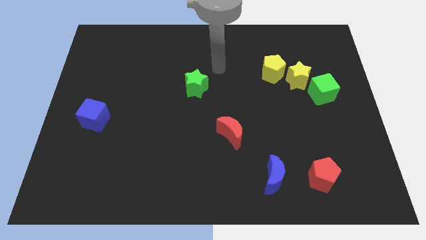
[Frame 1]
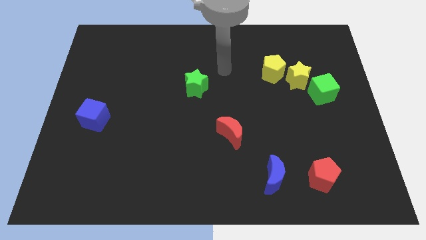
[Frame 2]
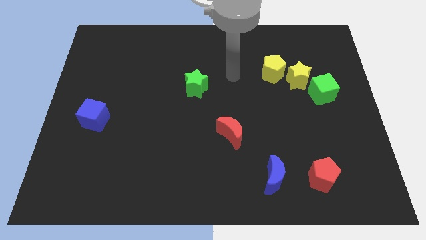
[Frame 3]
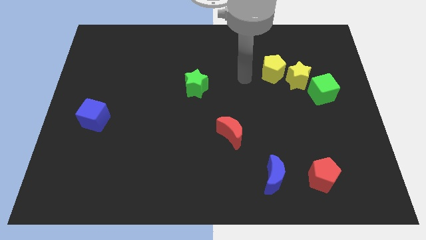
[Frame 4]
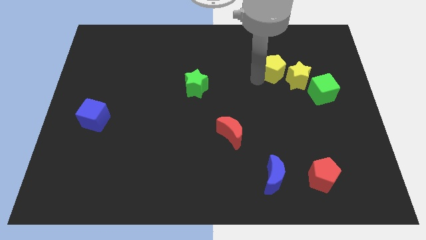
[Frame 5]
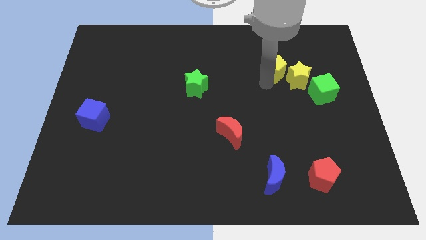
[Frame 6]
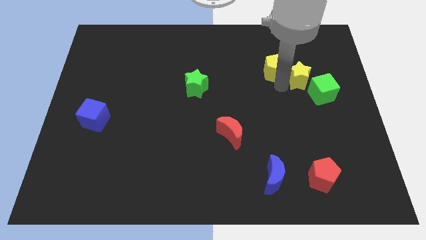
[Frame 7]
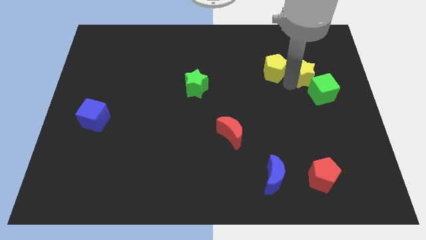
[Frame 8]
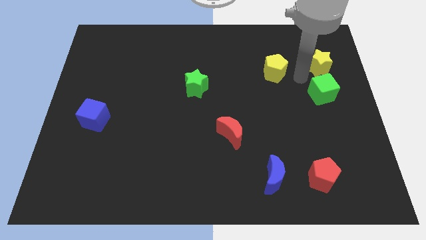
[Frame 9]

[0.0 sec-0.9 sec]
pull the yellow pentagon apart from the yellow star

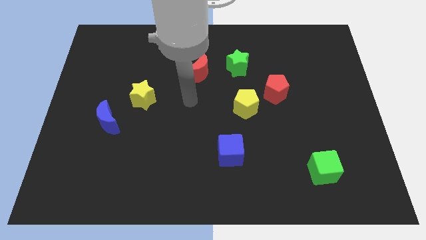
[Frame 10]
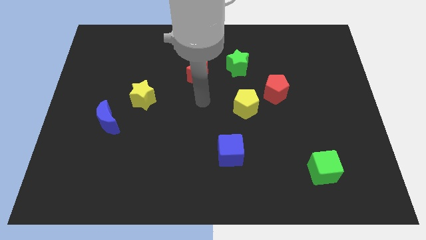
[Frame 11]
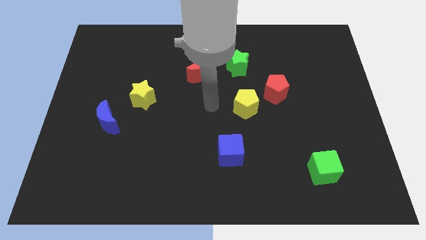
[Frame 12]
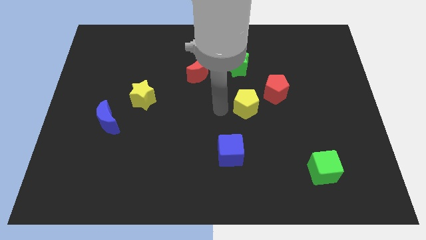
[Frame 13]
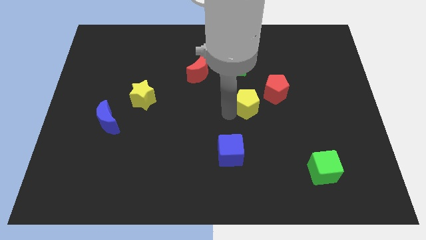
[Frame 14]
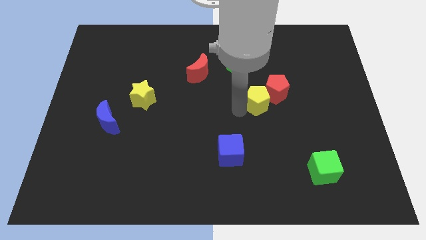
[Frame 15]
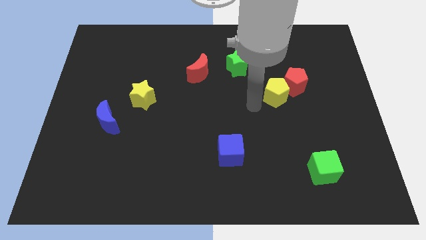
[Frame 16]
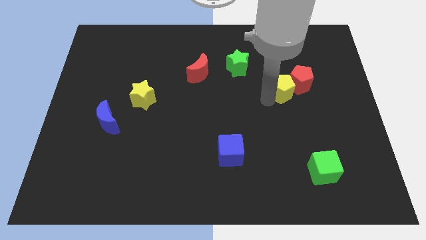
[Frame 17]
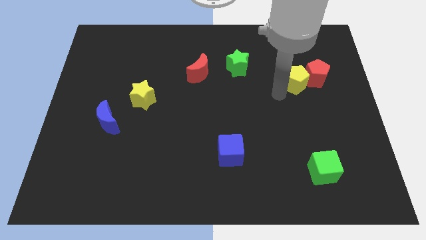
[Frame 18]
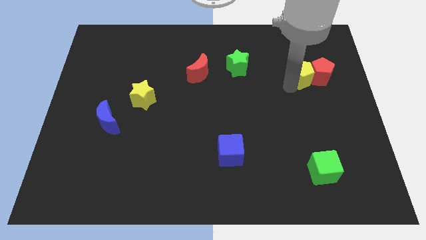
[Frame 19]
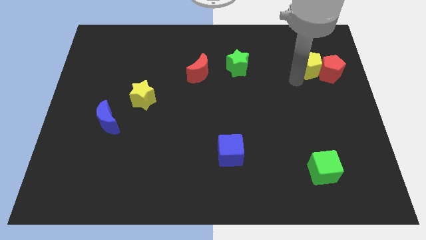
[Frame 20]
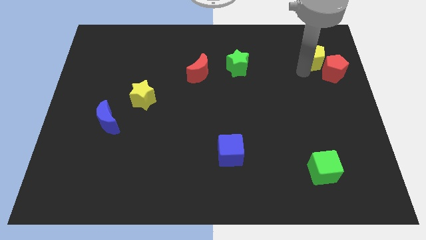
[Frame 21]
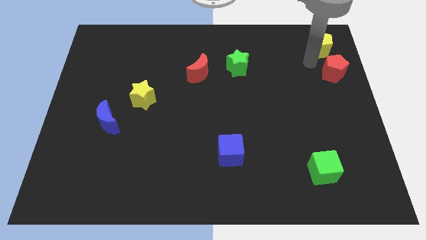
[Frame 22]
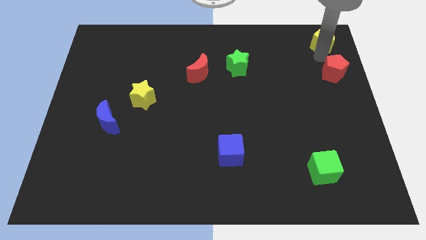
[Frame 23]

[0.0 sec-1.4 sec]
separate the red pentagon from the yellow pentagon

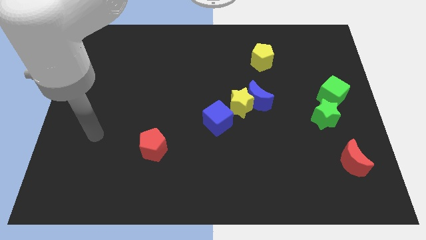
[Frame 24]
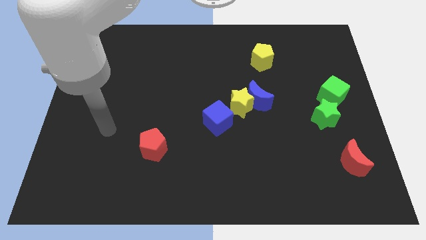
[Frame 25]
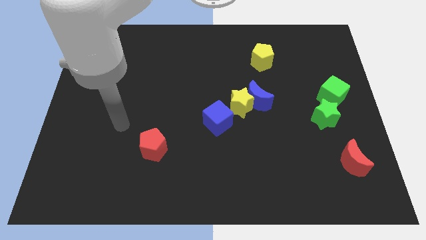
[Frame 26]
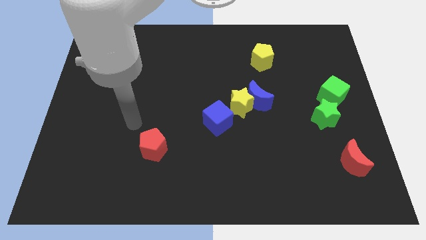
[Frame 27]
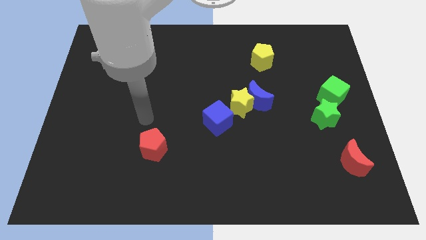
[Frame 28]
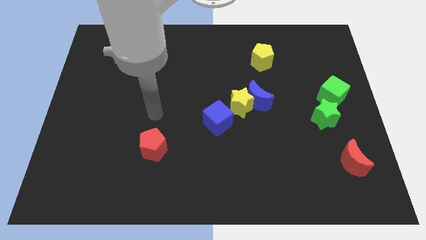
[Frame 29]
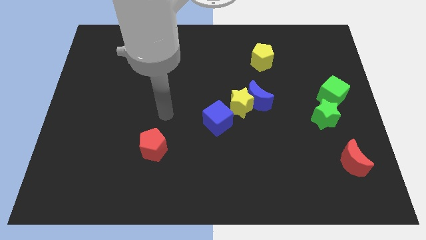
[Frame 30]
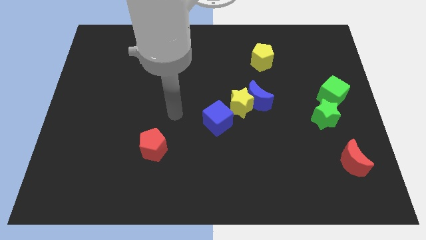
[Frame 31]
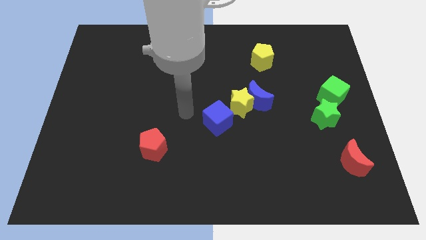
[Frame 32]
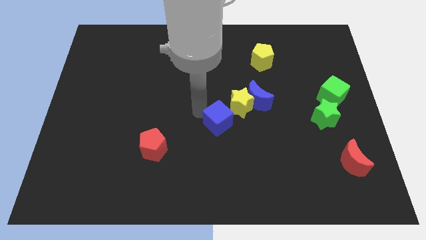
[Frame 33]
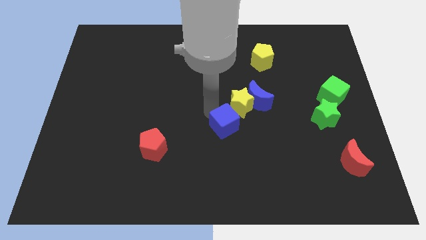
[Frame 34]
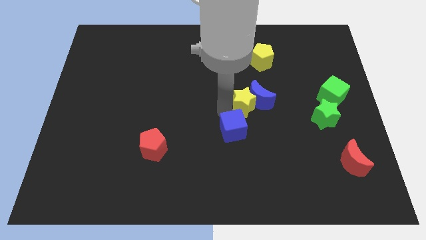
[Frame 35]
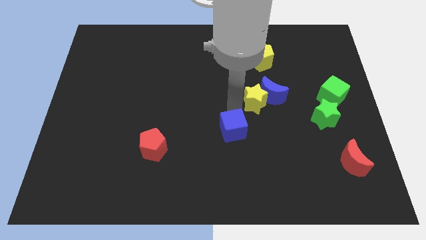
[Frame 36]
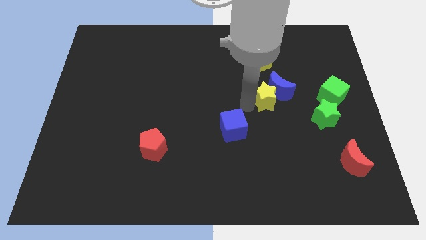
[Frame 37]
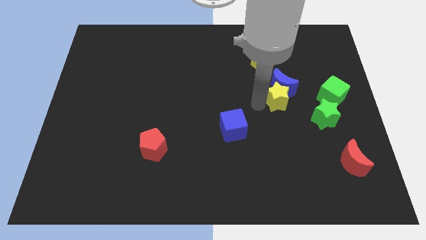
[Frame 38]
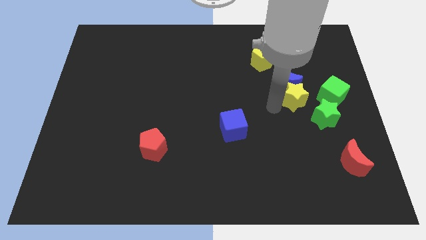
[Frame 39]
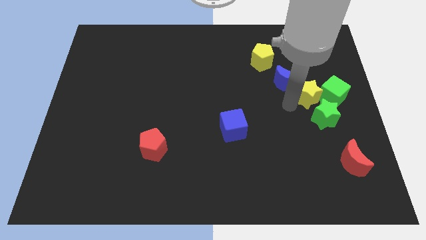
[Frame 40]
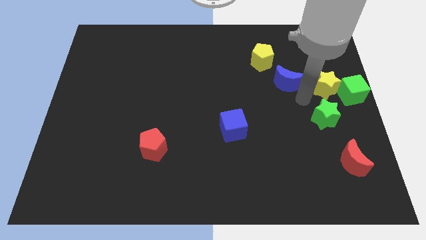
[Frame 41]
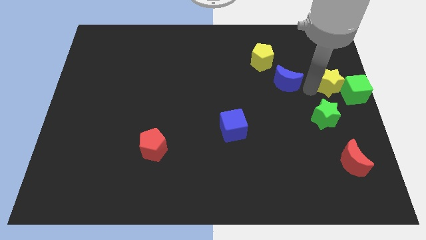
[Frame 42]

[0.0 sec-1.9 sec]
pull the blue moon apart from the yellow star

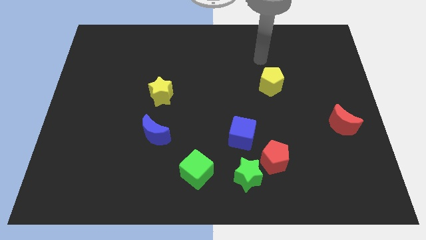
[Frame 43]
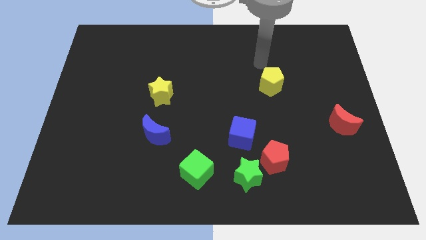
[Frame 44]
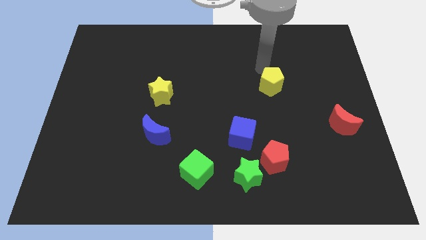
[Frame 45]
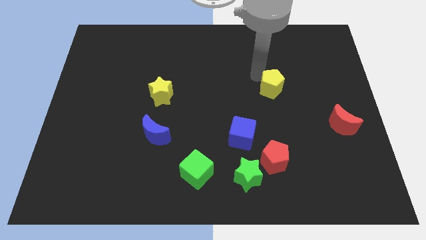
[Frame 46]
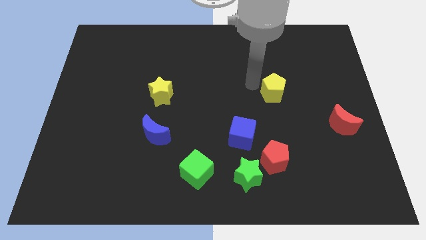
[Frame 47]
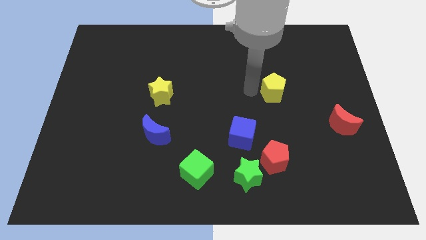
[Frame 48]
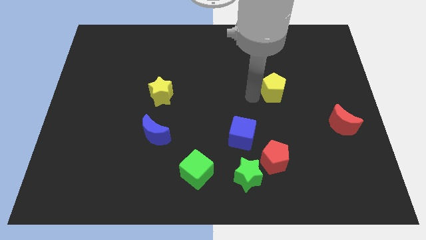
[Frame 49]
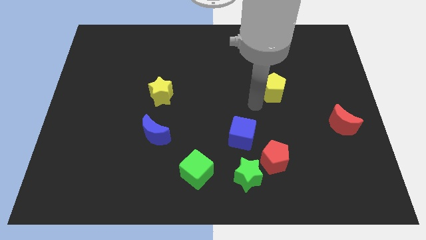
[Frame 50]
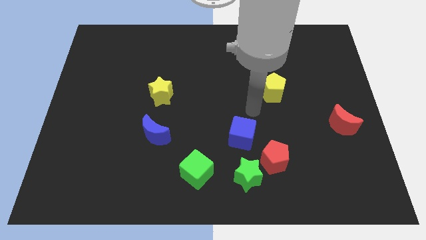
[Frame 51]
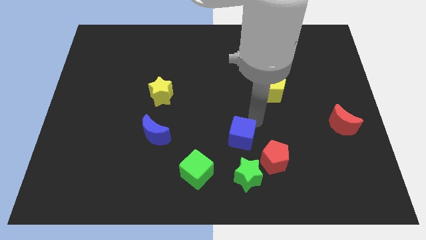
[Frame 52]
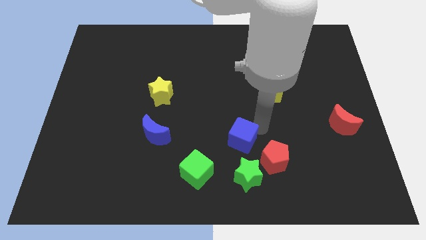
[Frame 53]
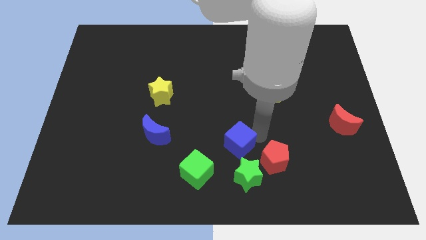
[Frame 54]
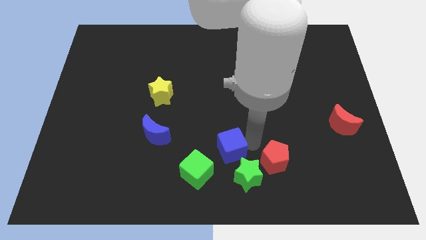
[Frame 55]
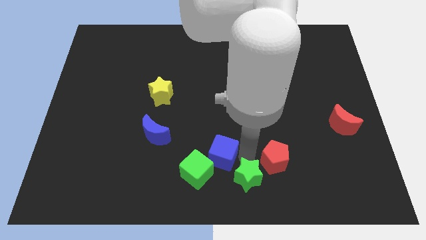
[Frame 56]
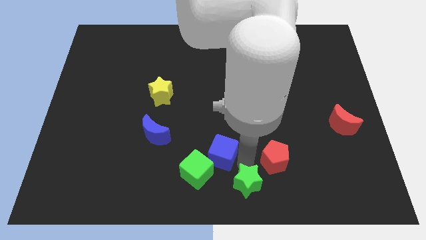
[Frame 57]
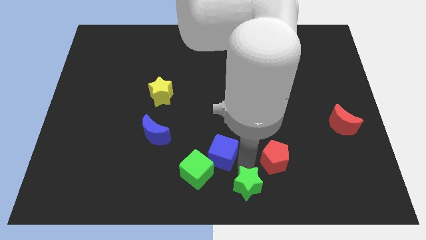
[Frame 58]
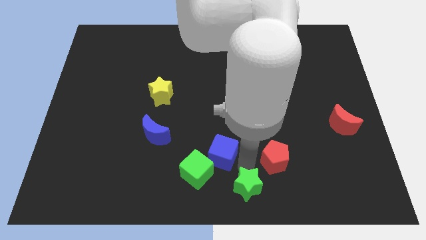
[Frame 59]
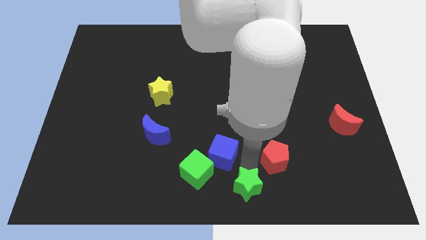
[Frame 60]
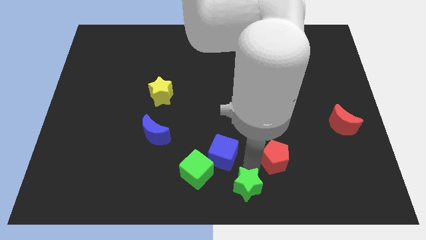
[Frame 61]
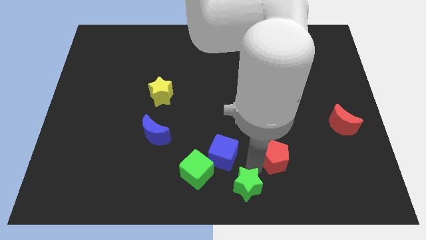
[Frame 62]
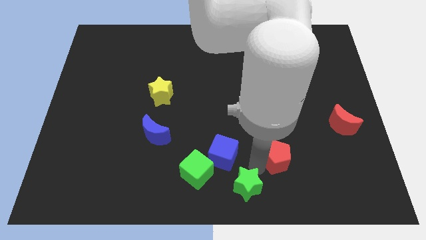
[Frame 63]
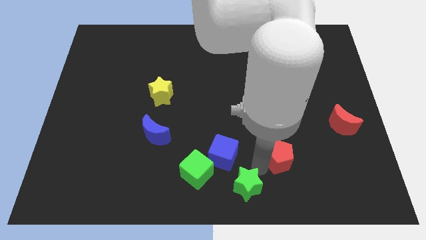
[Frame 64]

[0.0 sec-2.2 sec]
pull the red pentagon apart from the green star and blue cube

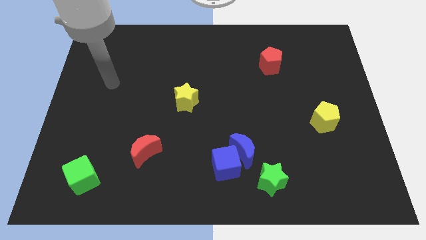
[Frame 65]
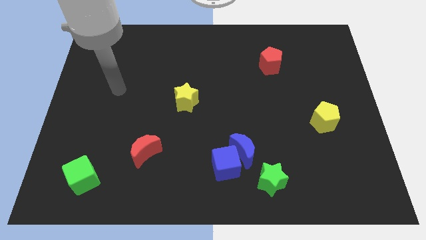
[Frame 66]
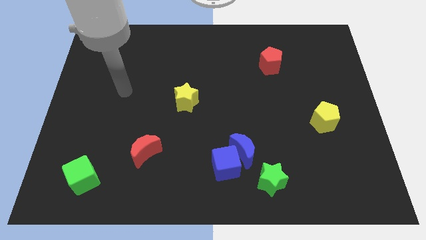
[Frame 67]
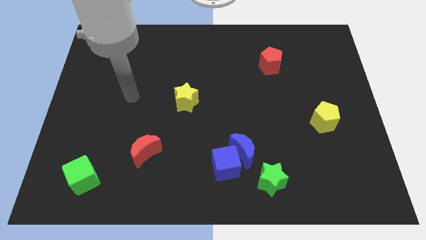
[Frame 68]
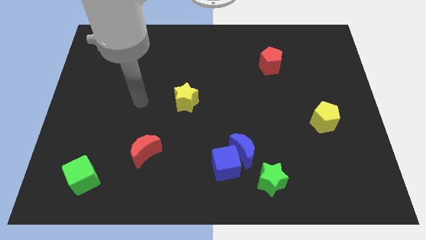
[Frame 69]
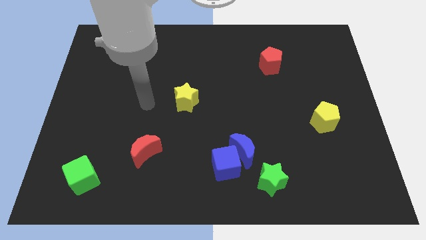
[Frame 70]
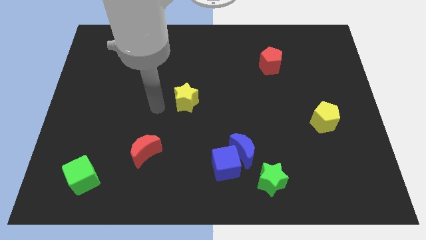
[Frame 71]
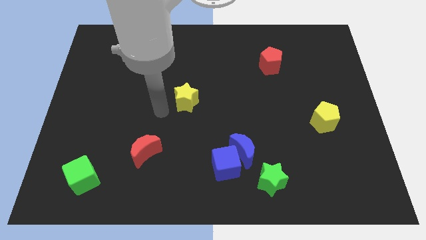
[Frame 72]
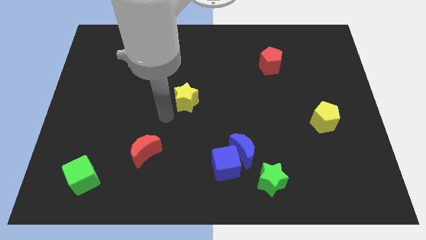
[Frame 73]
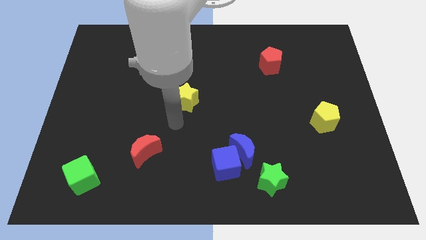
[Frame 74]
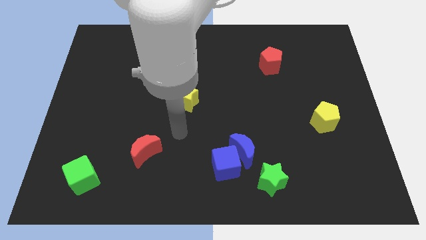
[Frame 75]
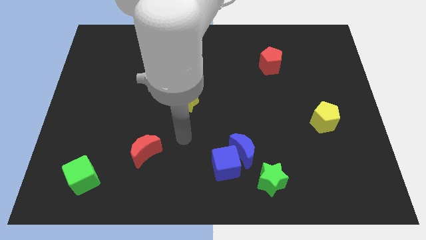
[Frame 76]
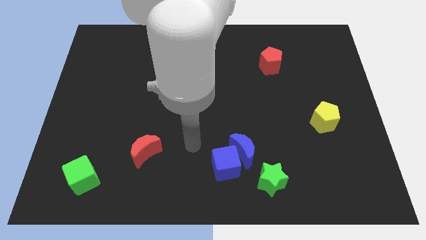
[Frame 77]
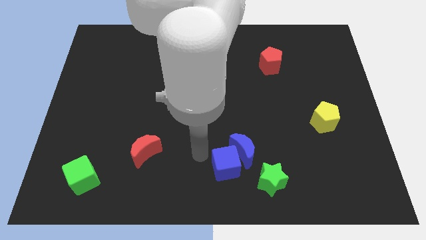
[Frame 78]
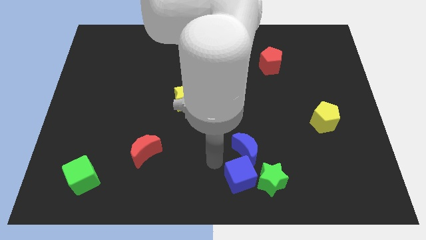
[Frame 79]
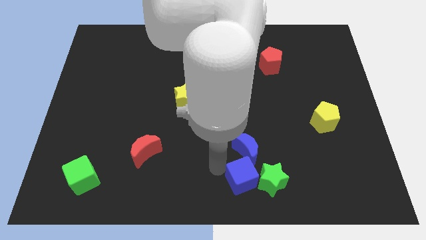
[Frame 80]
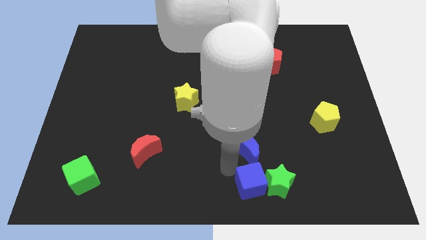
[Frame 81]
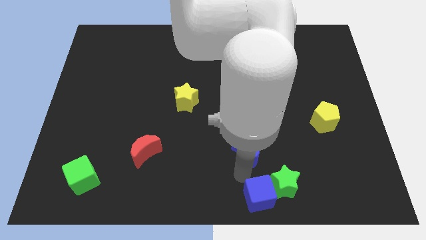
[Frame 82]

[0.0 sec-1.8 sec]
pull the blue moon apart from the blue cube and green star

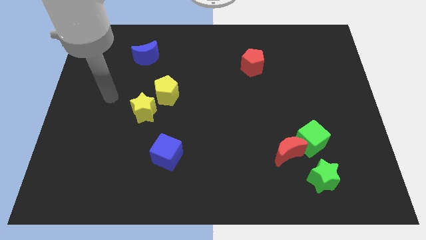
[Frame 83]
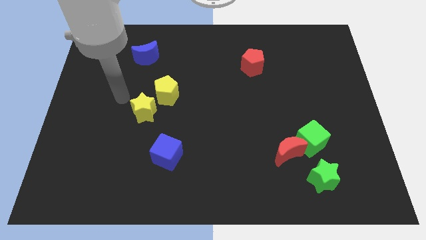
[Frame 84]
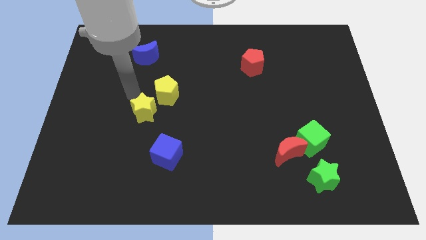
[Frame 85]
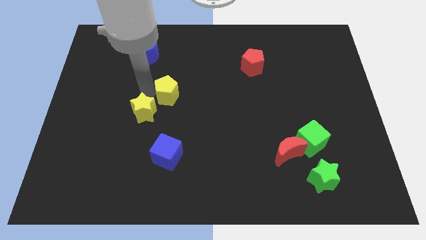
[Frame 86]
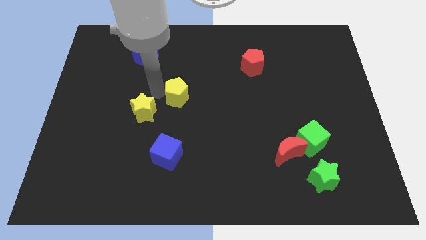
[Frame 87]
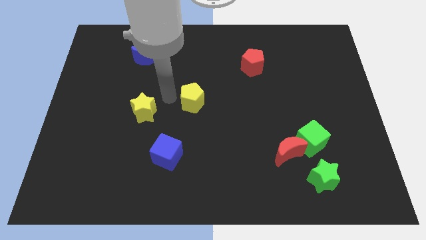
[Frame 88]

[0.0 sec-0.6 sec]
separate the yellow star from the yellow pentagon

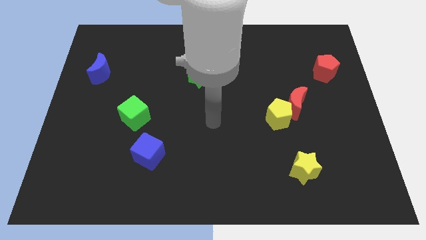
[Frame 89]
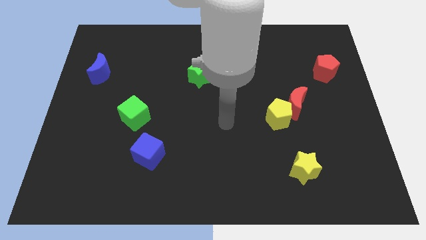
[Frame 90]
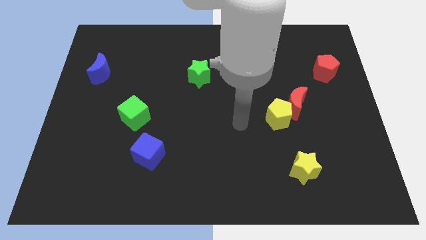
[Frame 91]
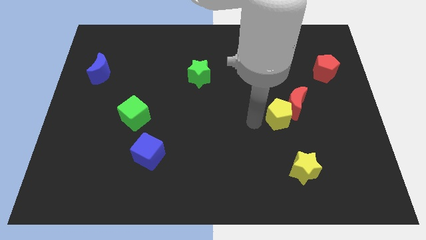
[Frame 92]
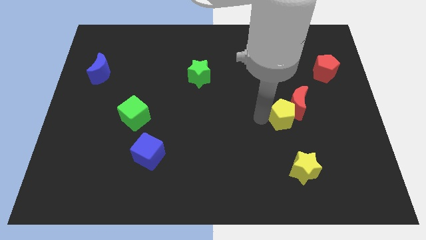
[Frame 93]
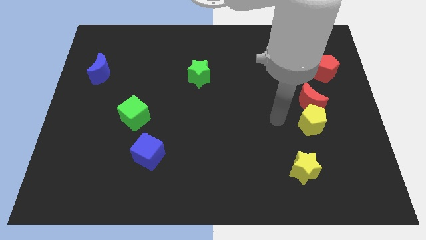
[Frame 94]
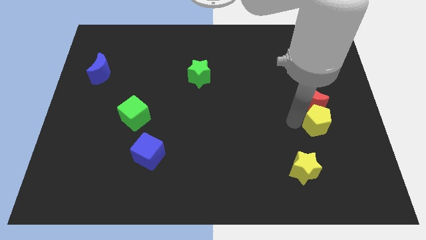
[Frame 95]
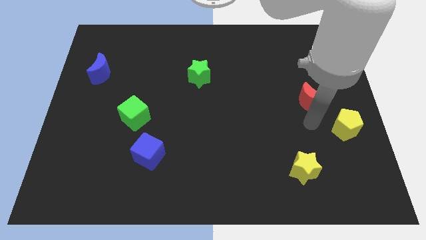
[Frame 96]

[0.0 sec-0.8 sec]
separate the red moon from the yellow pentagon
